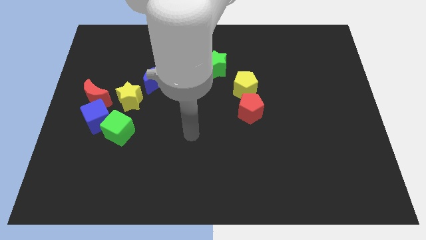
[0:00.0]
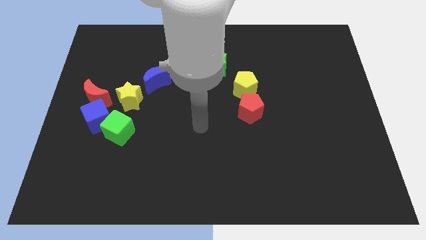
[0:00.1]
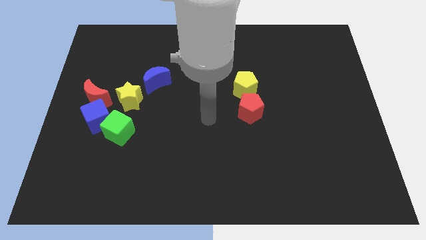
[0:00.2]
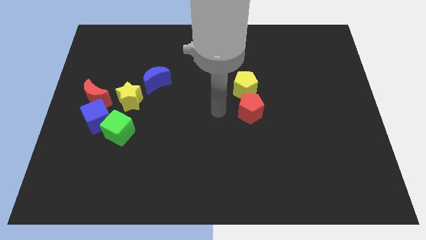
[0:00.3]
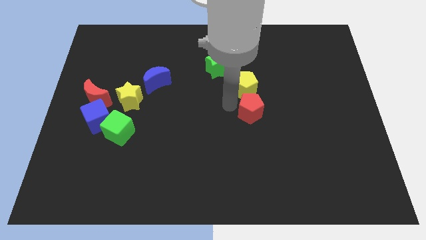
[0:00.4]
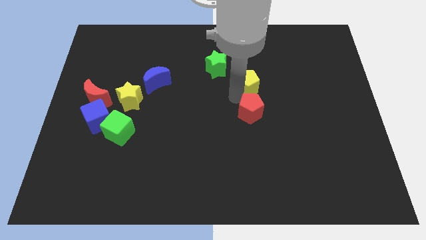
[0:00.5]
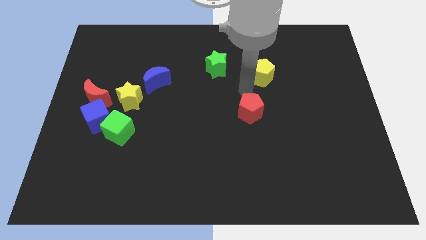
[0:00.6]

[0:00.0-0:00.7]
pull the red pentagon apart from the yellow pentagon

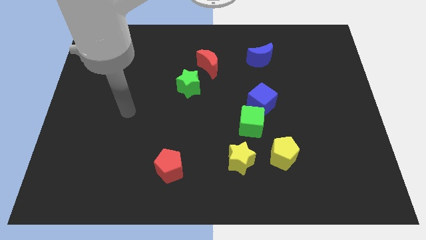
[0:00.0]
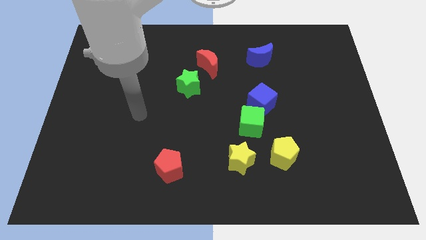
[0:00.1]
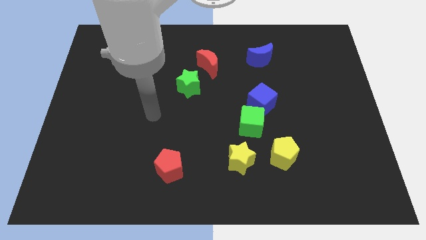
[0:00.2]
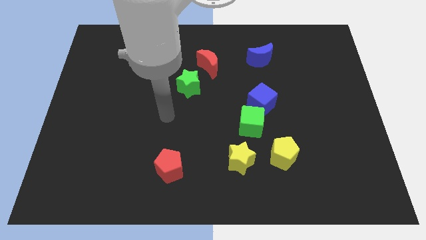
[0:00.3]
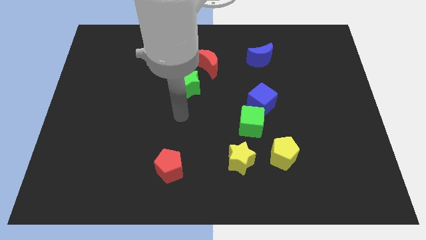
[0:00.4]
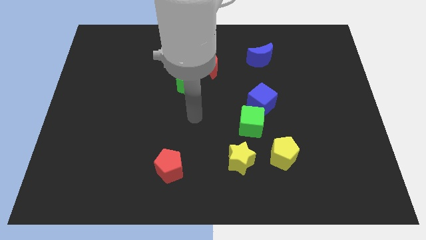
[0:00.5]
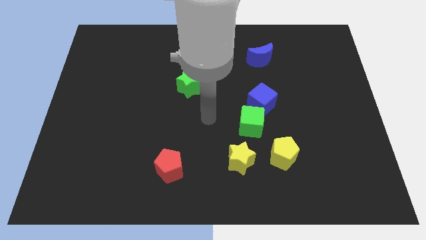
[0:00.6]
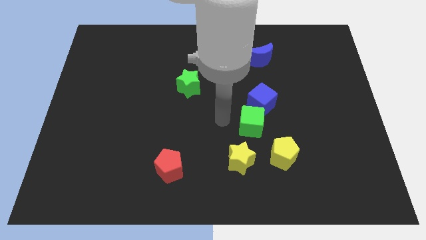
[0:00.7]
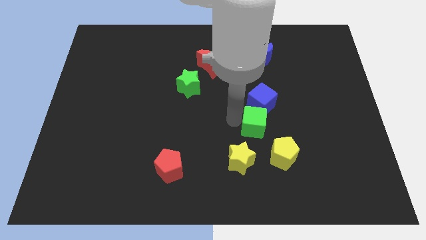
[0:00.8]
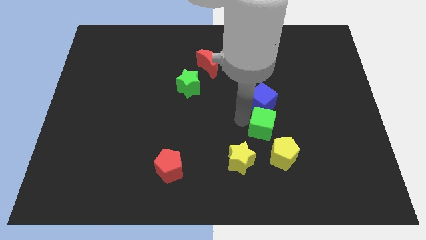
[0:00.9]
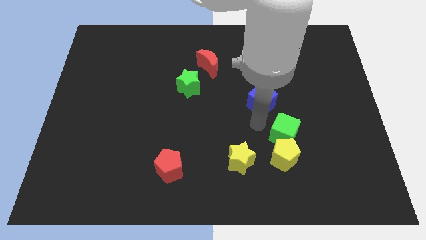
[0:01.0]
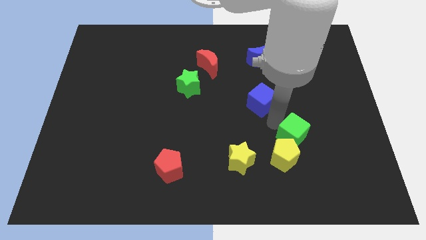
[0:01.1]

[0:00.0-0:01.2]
pull the blue cube apart from the green cube

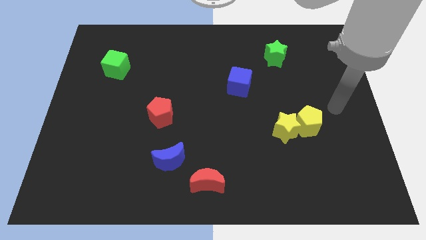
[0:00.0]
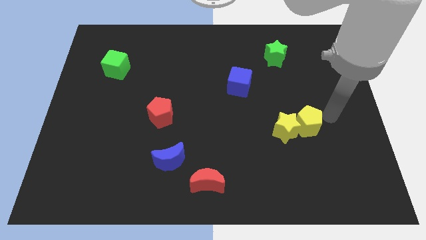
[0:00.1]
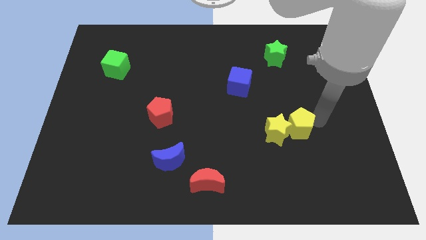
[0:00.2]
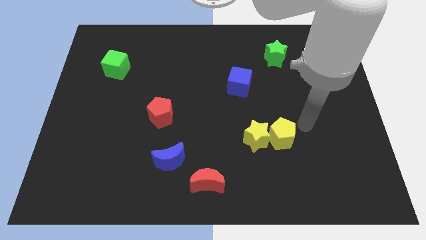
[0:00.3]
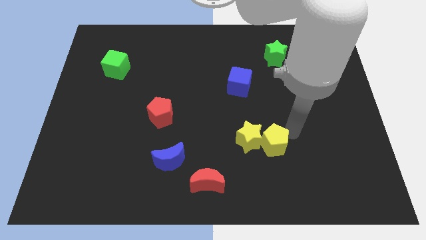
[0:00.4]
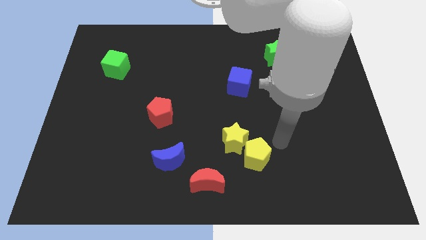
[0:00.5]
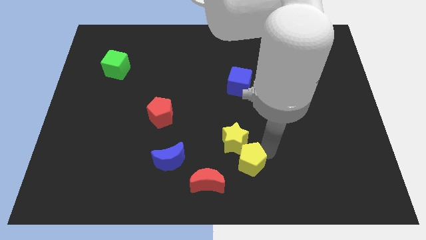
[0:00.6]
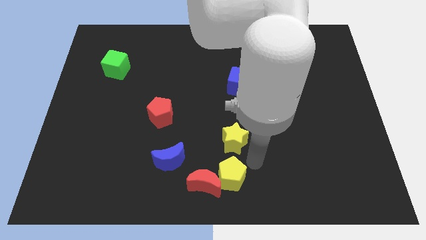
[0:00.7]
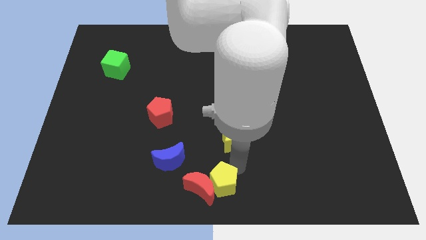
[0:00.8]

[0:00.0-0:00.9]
separate the yellow star from the yellow pentagon

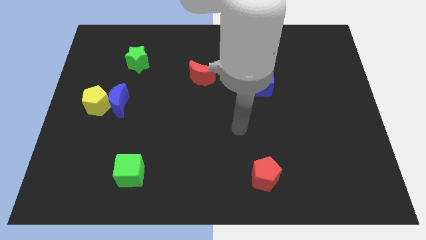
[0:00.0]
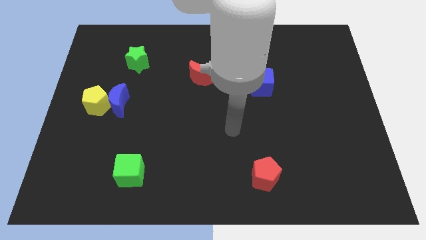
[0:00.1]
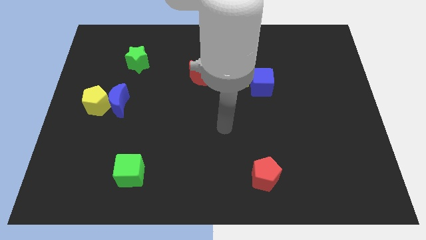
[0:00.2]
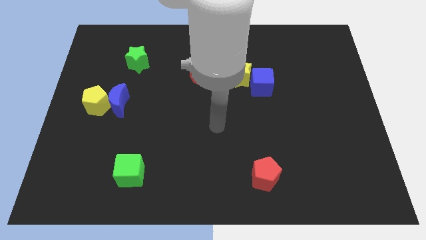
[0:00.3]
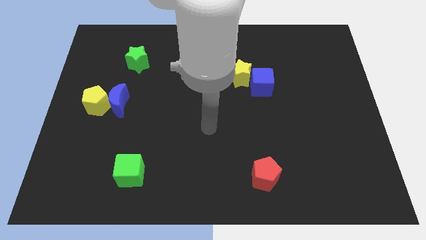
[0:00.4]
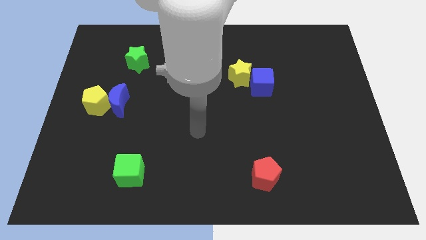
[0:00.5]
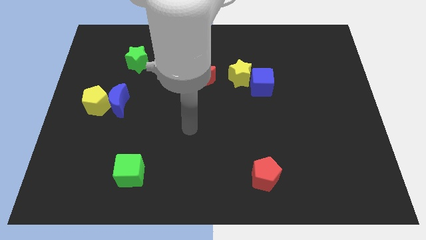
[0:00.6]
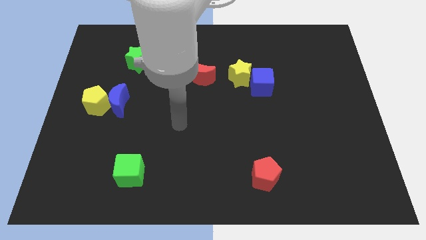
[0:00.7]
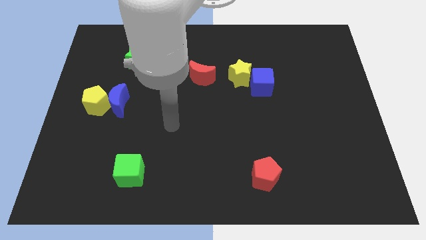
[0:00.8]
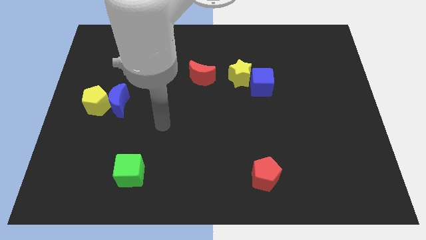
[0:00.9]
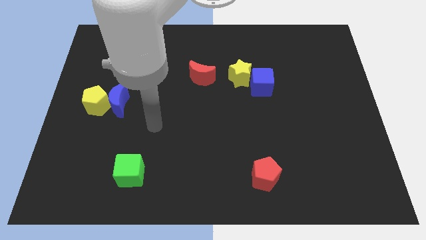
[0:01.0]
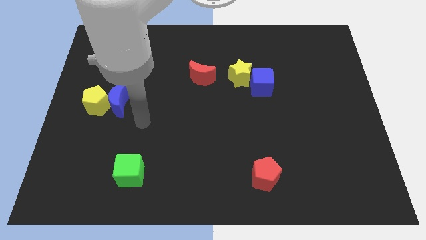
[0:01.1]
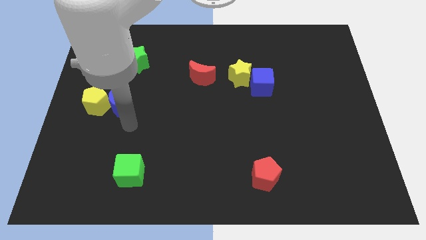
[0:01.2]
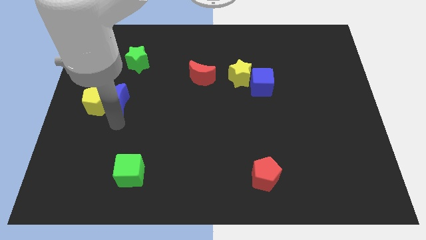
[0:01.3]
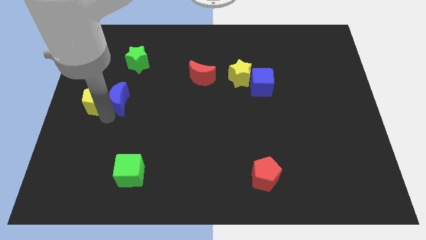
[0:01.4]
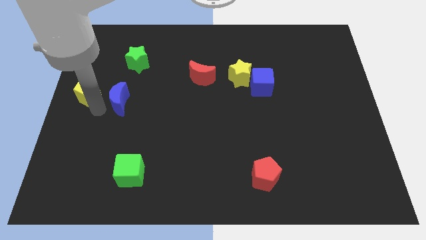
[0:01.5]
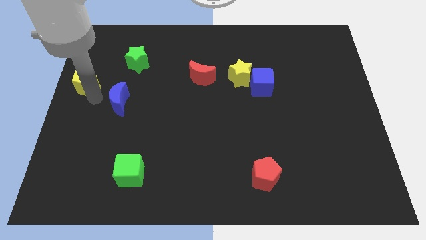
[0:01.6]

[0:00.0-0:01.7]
separate the blue moon from the yellow pentagon

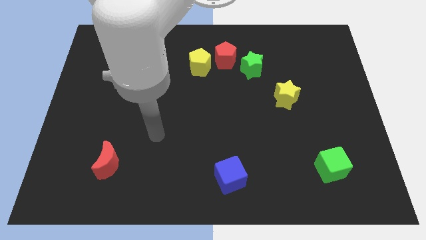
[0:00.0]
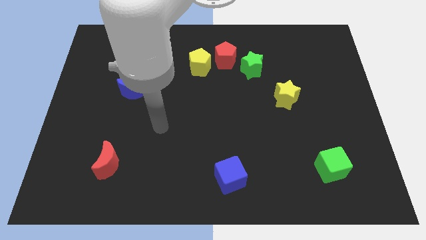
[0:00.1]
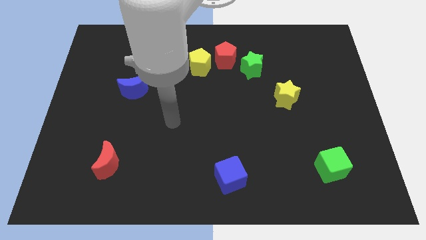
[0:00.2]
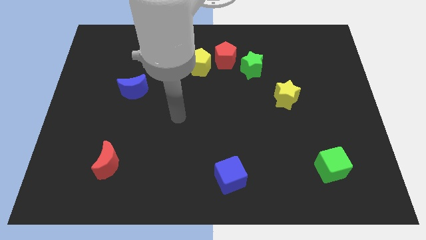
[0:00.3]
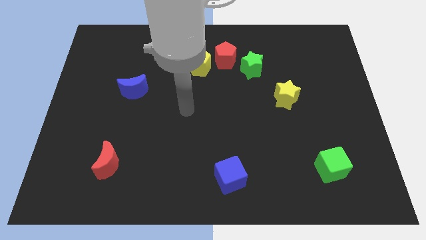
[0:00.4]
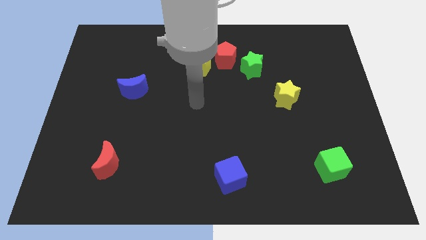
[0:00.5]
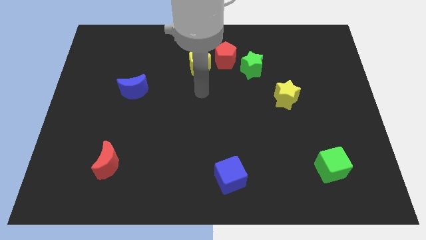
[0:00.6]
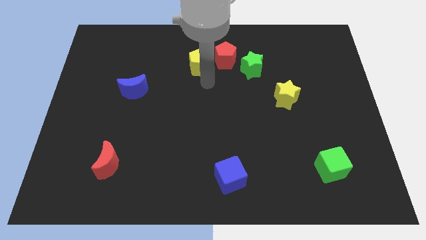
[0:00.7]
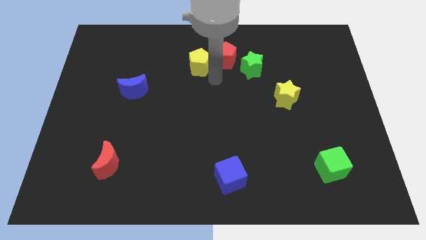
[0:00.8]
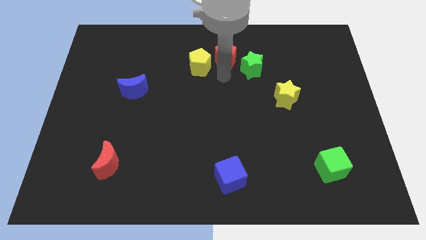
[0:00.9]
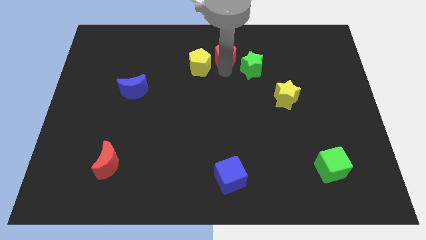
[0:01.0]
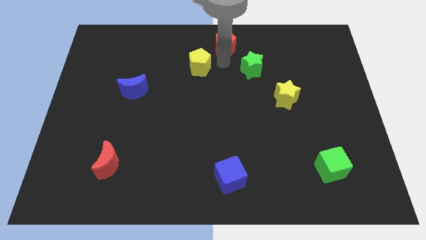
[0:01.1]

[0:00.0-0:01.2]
separate the yellow pentagon from the red pentagon

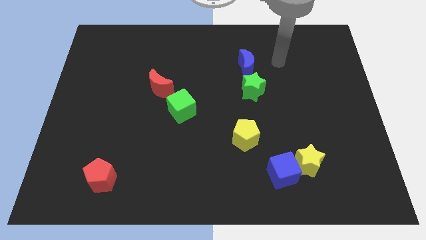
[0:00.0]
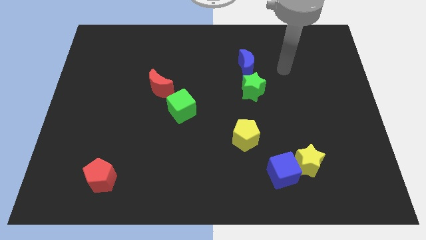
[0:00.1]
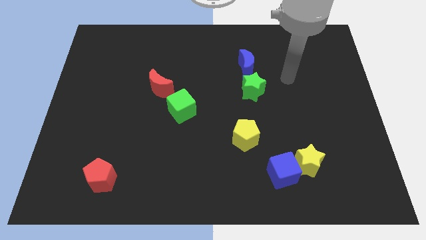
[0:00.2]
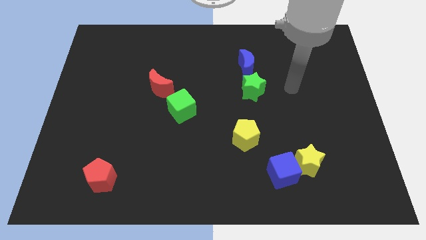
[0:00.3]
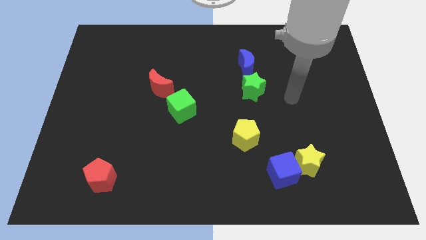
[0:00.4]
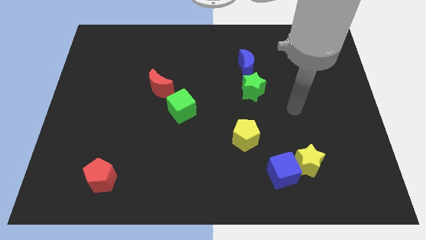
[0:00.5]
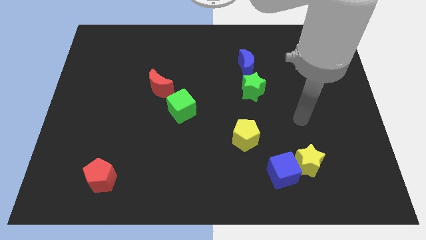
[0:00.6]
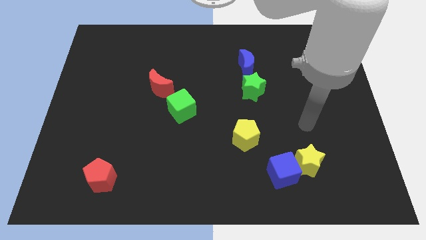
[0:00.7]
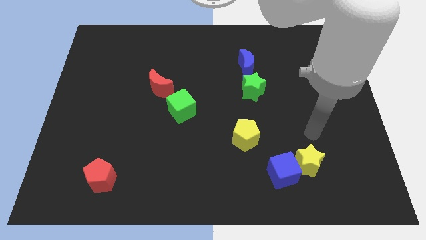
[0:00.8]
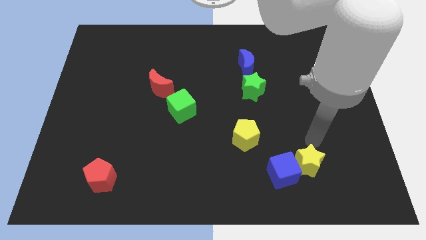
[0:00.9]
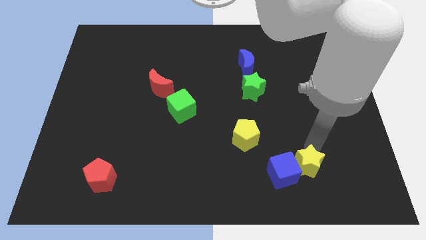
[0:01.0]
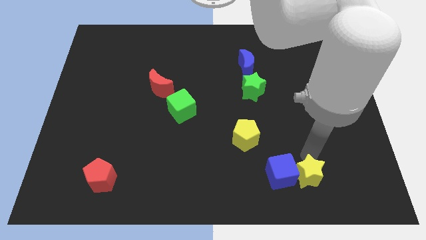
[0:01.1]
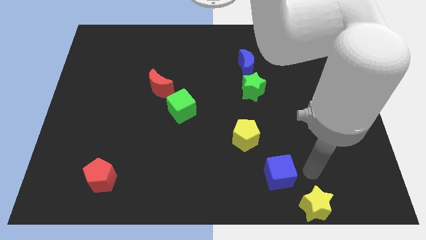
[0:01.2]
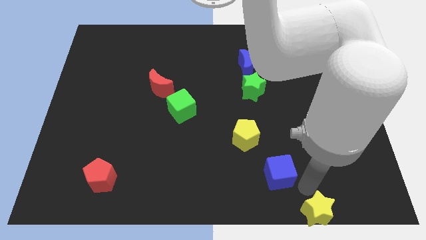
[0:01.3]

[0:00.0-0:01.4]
move the blue cube away from the yellow star

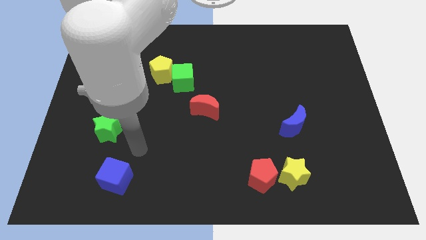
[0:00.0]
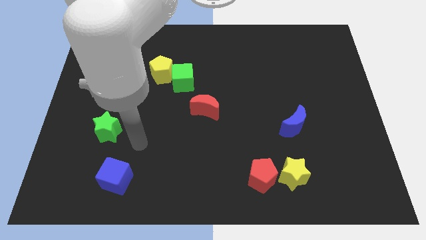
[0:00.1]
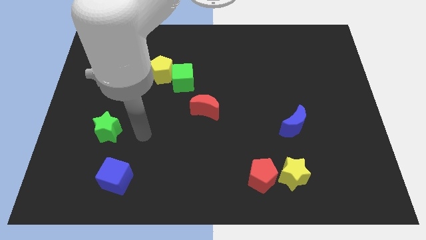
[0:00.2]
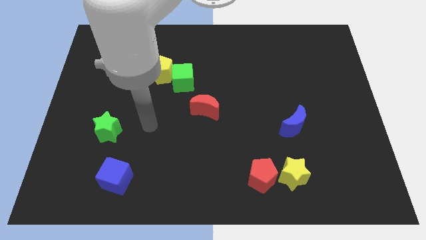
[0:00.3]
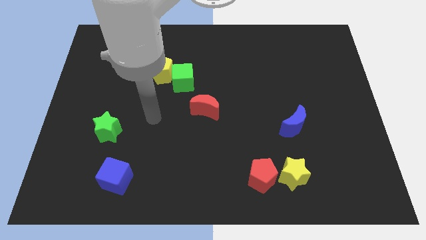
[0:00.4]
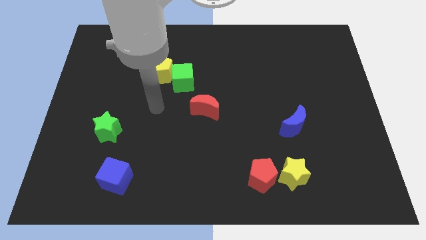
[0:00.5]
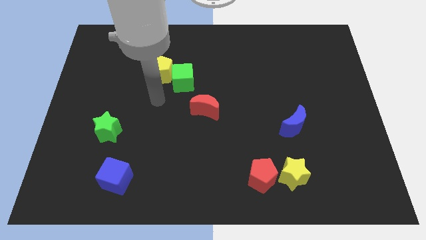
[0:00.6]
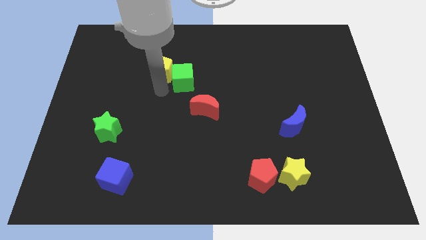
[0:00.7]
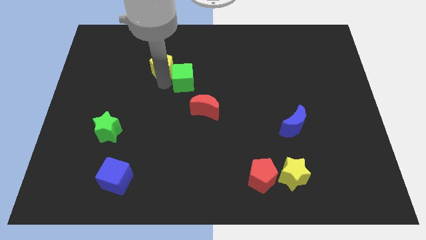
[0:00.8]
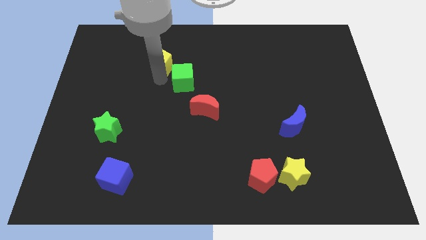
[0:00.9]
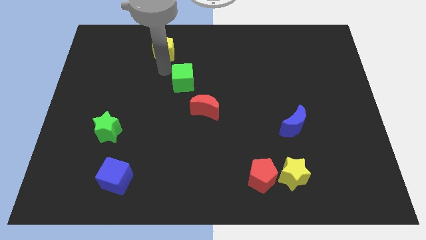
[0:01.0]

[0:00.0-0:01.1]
pull the green cube apart from the yellow pentagon

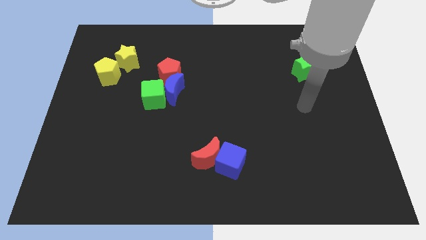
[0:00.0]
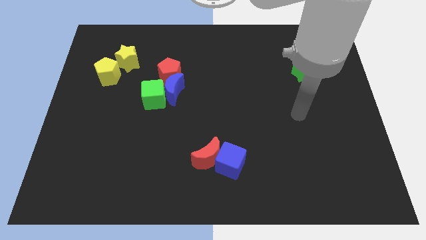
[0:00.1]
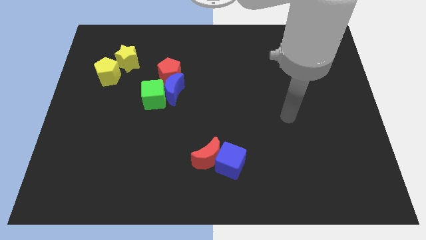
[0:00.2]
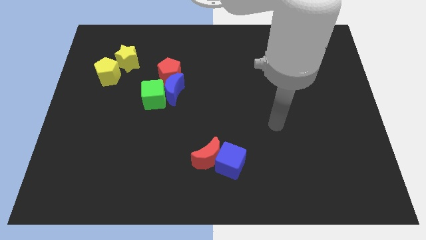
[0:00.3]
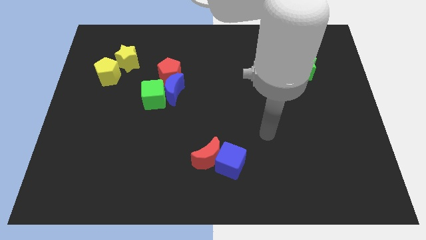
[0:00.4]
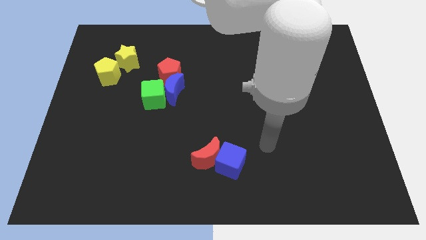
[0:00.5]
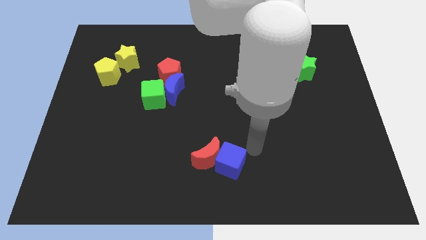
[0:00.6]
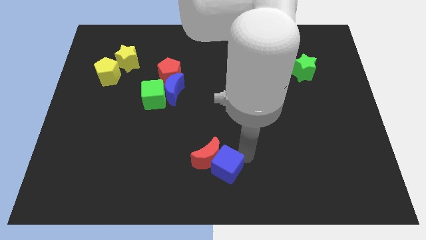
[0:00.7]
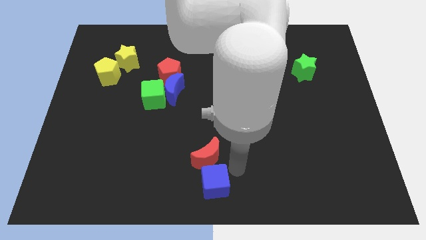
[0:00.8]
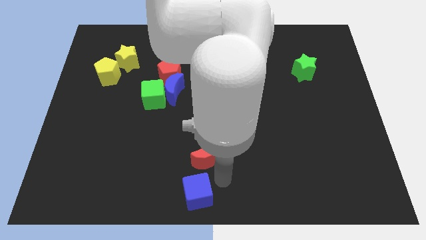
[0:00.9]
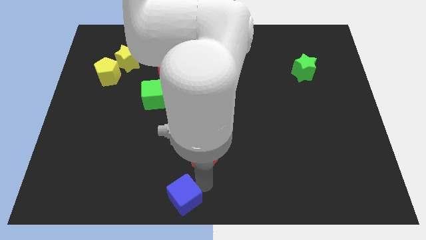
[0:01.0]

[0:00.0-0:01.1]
separate the red moon from the blue cube
